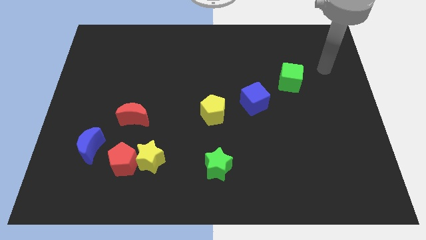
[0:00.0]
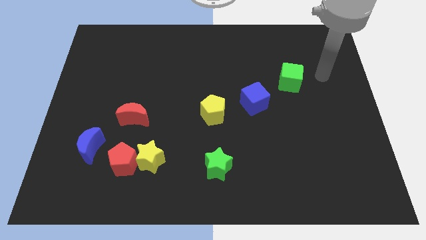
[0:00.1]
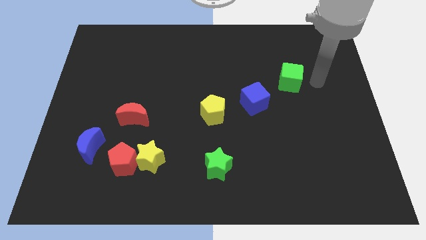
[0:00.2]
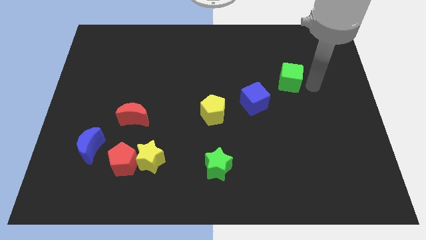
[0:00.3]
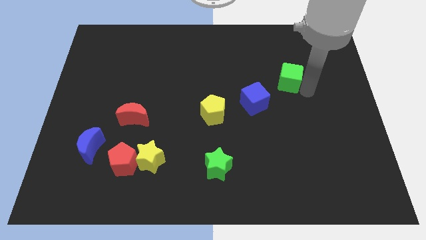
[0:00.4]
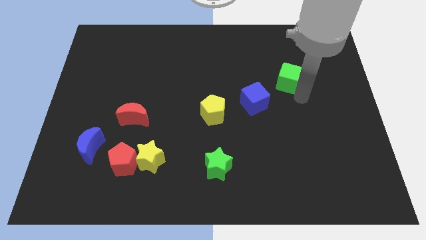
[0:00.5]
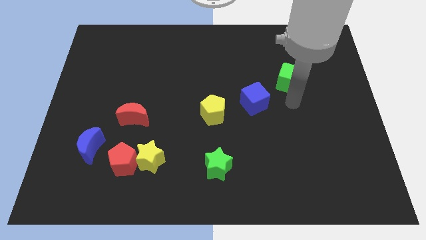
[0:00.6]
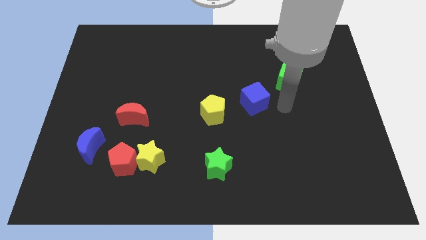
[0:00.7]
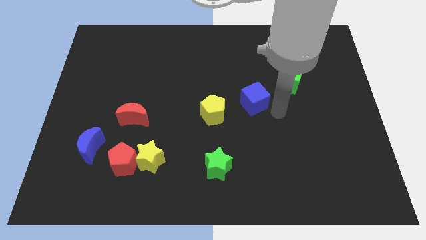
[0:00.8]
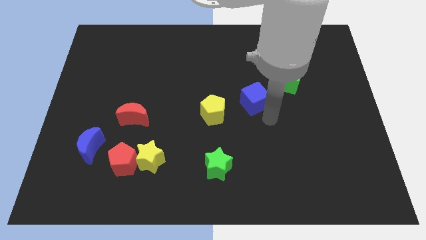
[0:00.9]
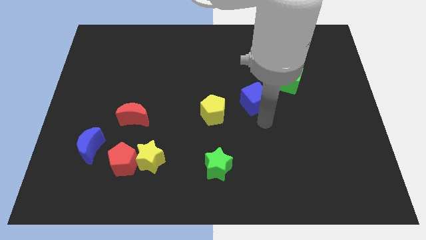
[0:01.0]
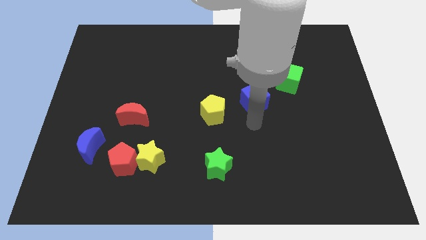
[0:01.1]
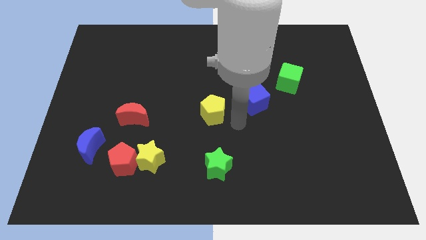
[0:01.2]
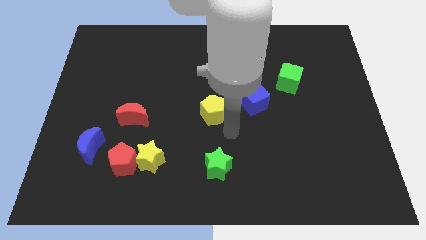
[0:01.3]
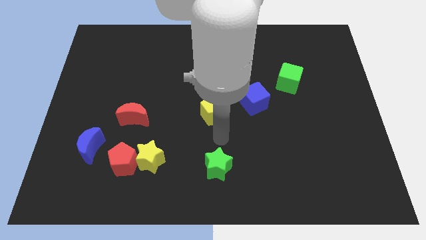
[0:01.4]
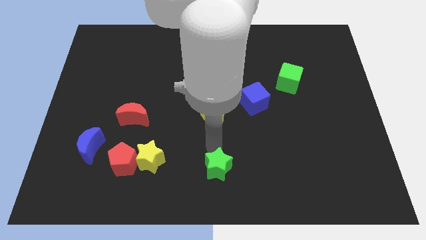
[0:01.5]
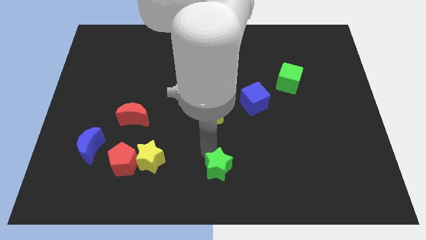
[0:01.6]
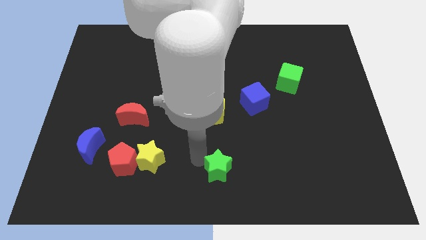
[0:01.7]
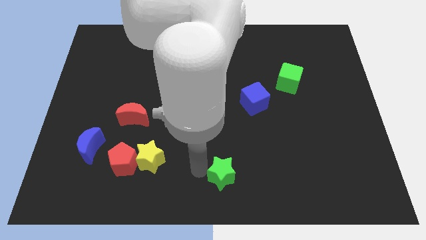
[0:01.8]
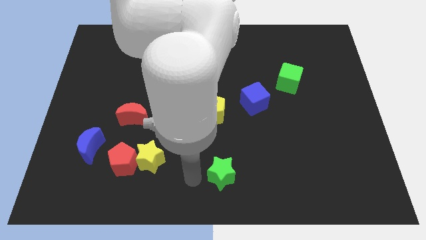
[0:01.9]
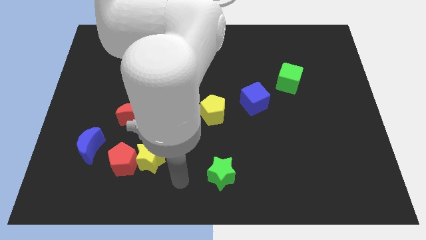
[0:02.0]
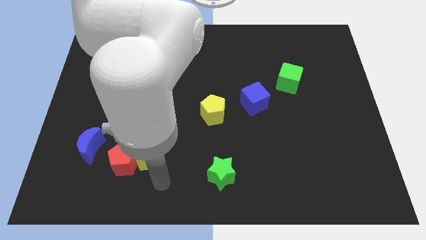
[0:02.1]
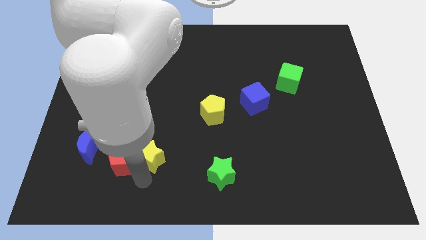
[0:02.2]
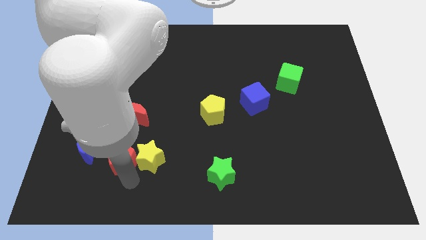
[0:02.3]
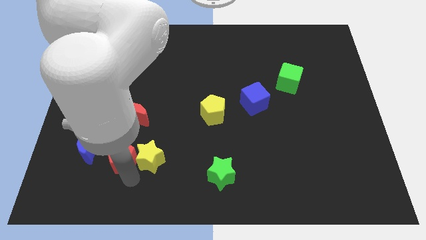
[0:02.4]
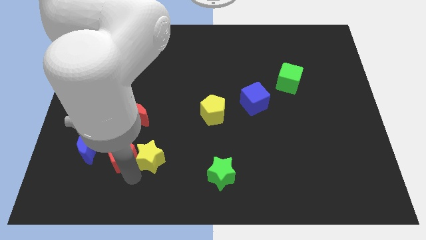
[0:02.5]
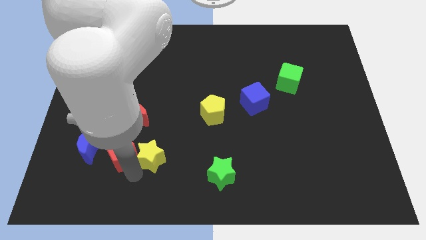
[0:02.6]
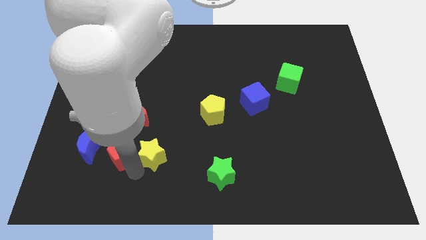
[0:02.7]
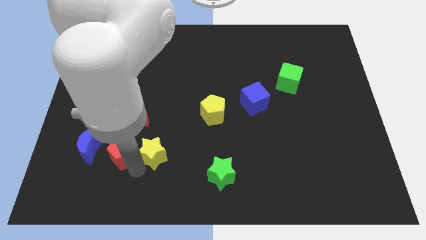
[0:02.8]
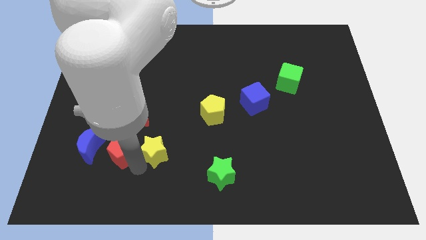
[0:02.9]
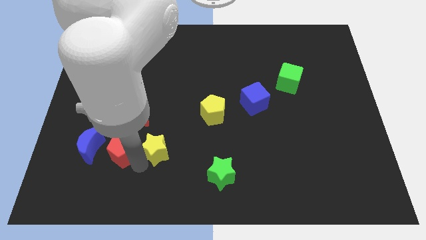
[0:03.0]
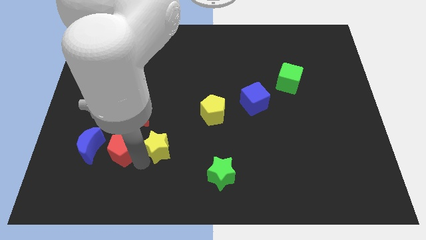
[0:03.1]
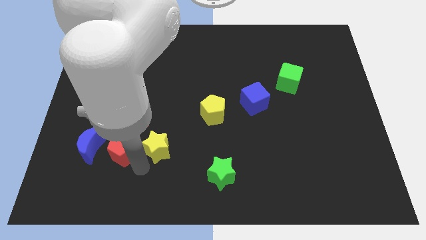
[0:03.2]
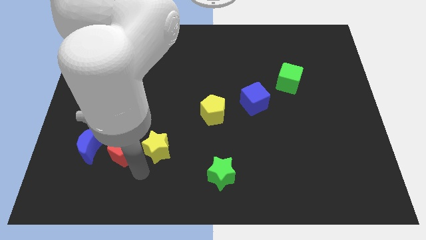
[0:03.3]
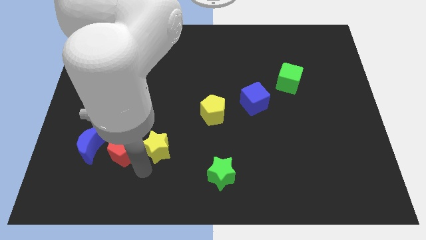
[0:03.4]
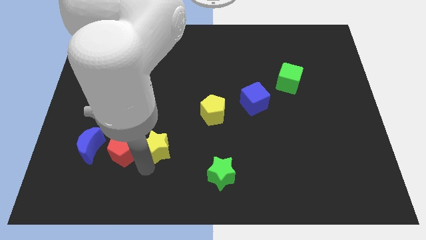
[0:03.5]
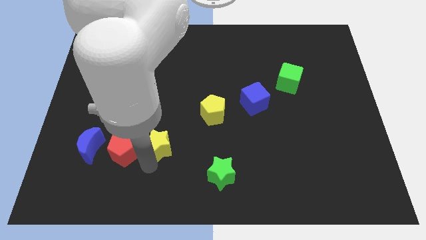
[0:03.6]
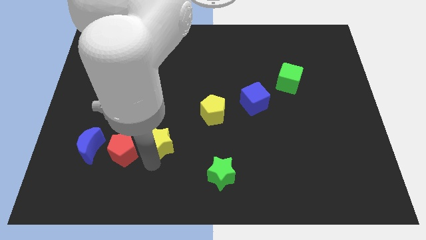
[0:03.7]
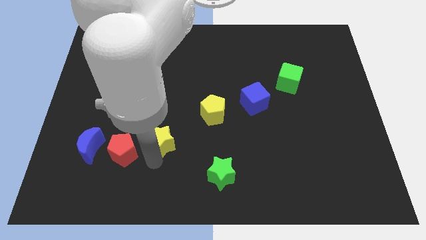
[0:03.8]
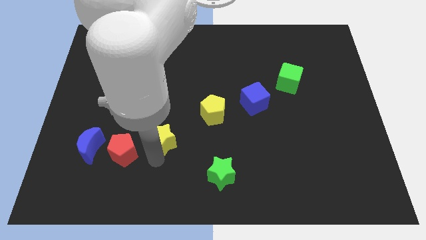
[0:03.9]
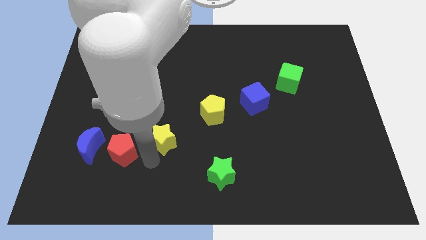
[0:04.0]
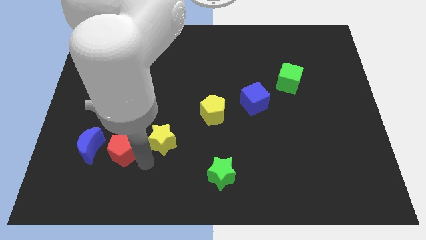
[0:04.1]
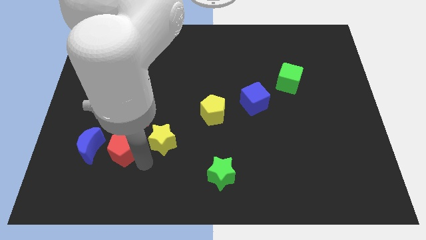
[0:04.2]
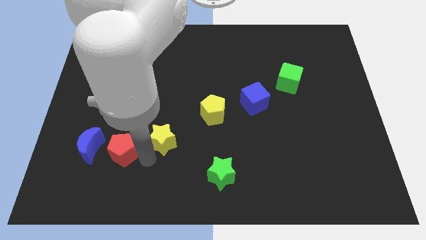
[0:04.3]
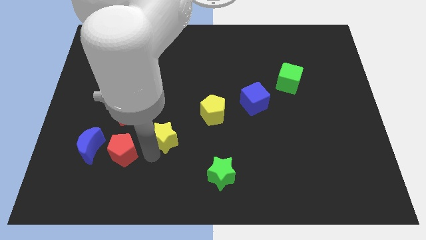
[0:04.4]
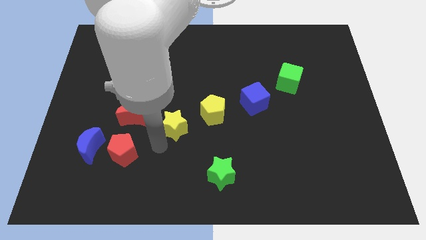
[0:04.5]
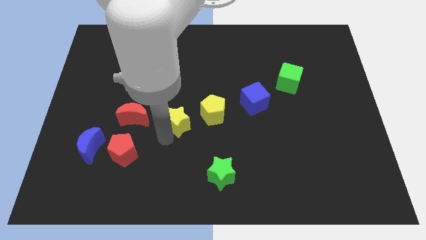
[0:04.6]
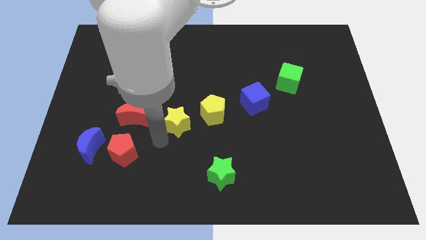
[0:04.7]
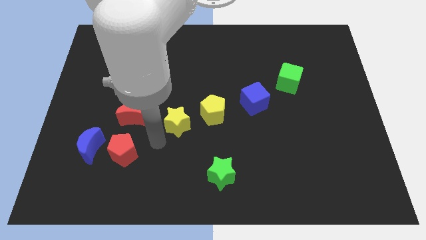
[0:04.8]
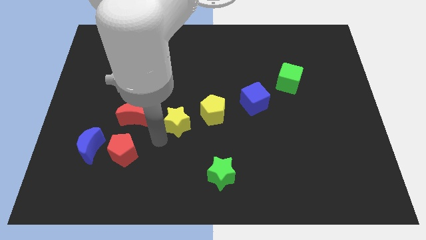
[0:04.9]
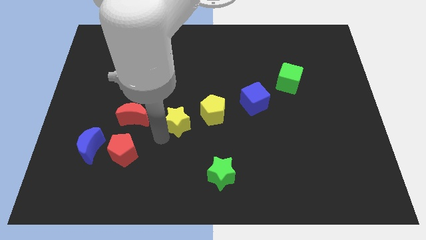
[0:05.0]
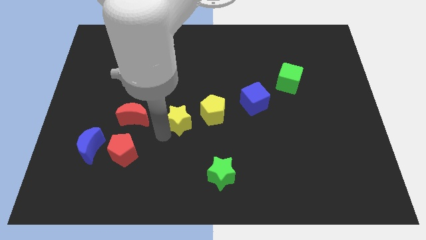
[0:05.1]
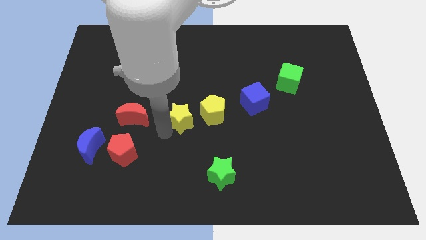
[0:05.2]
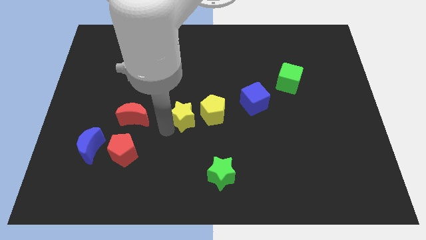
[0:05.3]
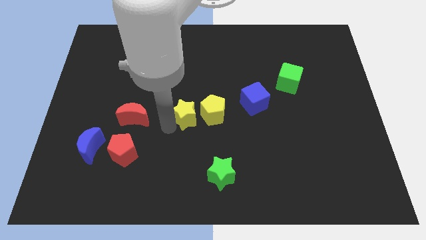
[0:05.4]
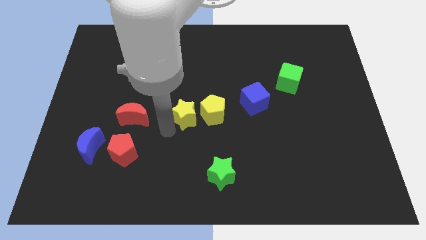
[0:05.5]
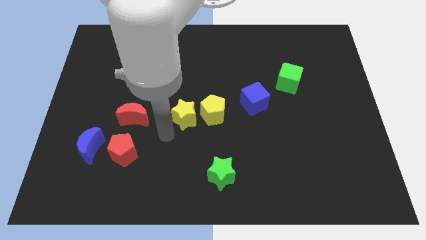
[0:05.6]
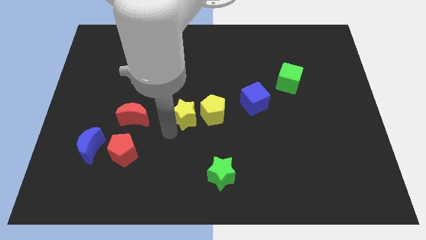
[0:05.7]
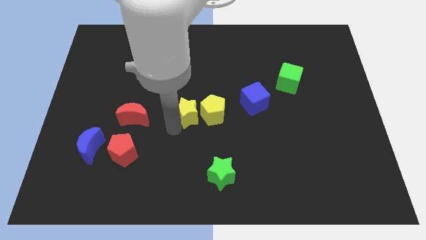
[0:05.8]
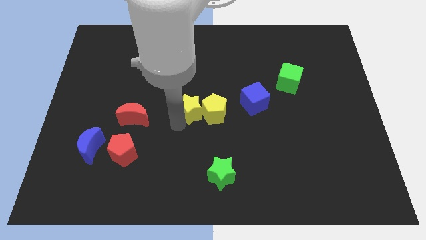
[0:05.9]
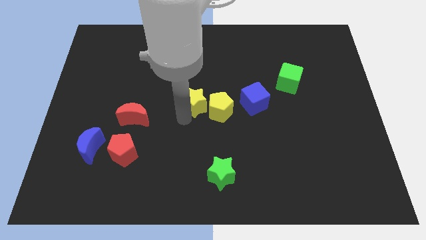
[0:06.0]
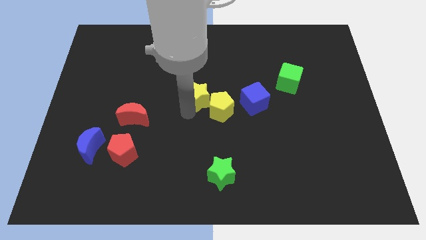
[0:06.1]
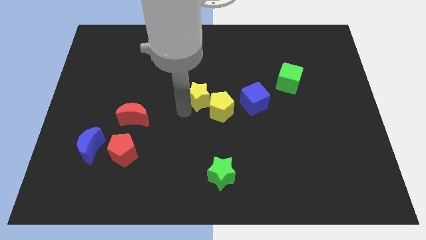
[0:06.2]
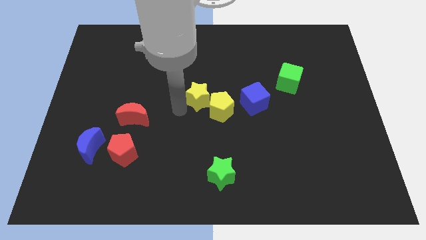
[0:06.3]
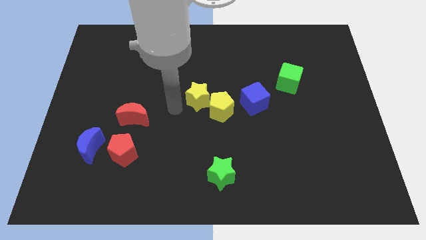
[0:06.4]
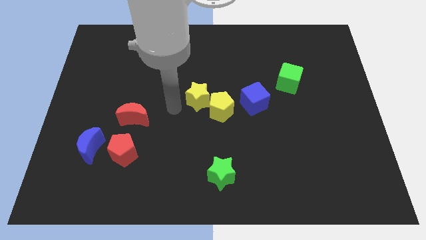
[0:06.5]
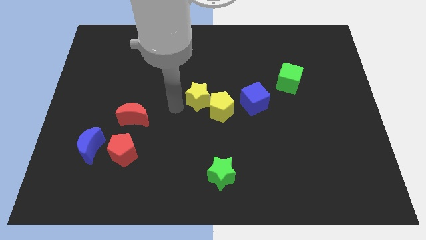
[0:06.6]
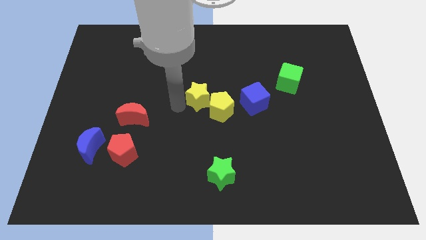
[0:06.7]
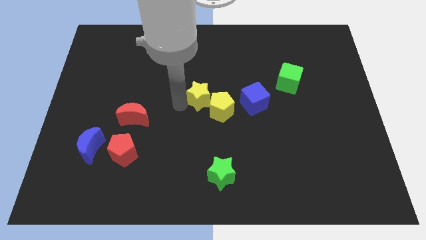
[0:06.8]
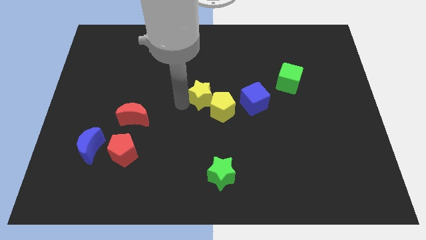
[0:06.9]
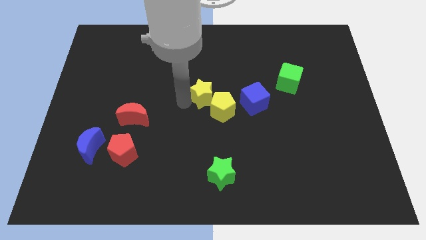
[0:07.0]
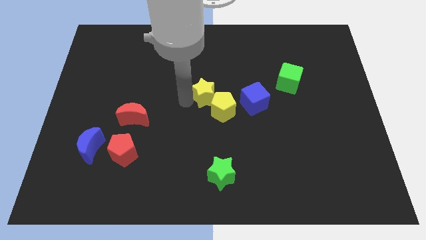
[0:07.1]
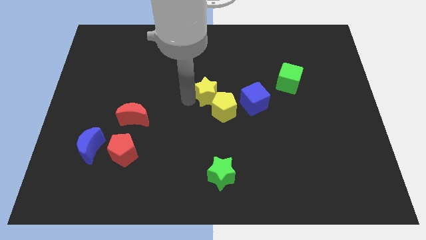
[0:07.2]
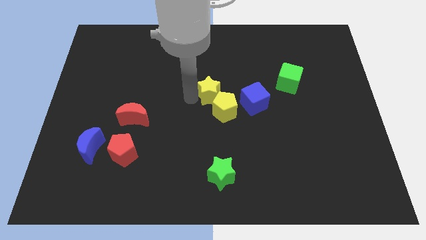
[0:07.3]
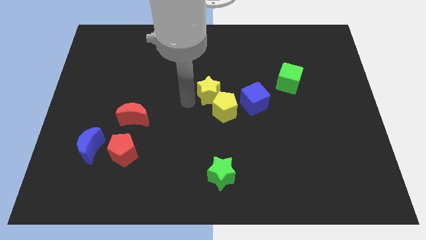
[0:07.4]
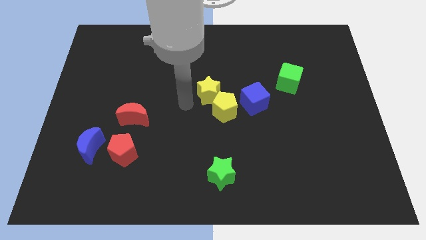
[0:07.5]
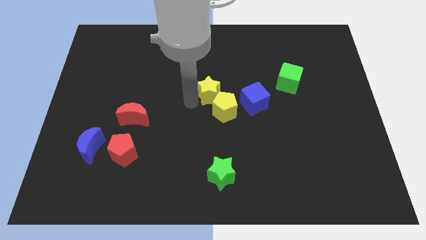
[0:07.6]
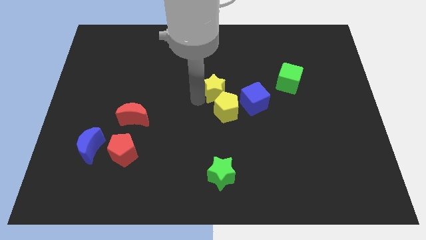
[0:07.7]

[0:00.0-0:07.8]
push the yellow star diagonally up and to the left of the blue cube

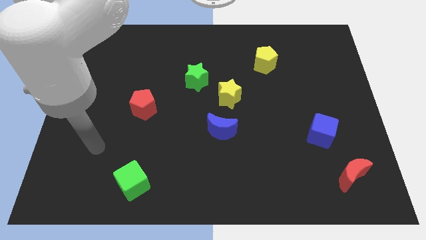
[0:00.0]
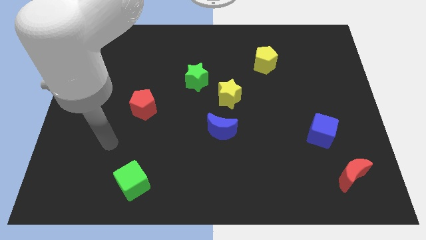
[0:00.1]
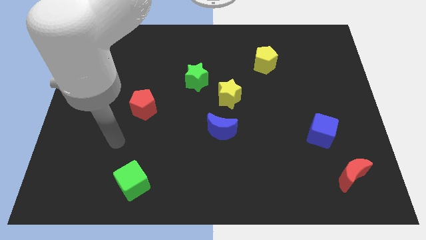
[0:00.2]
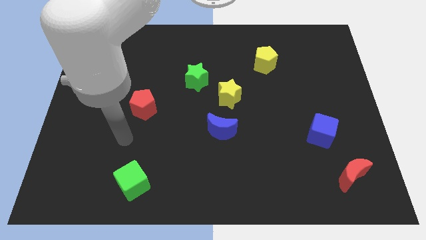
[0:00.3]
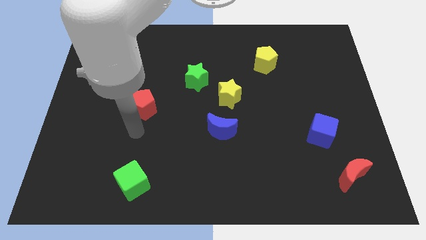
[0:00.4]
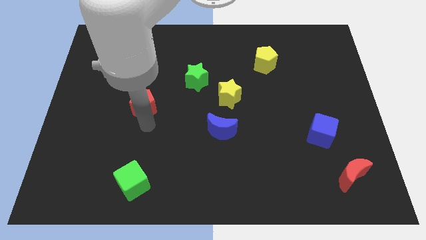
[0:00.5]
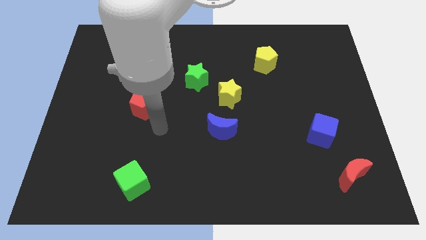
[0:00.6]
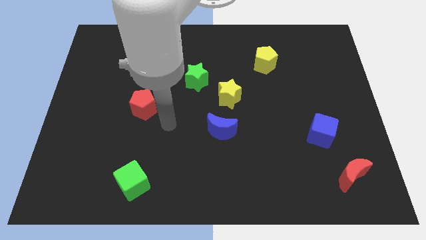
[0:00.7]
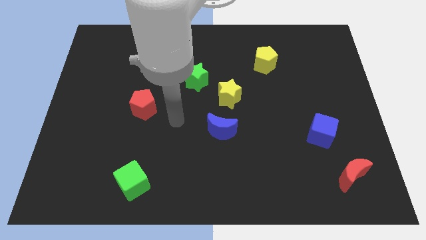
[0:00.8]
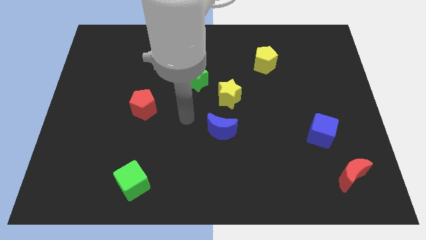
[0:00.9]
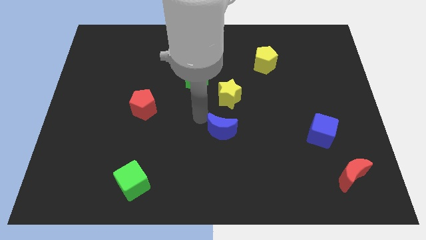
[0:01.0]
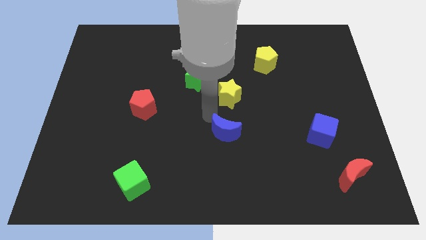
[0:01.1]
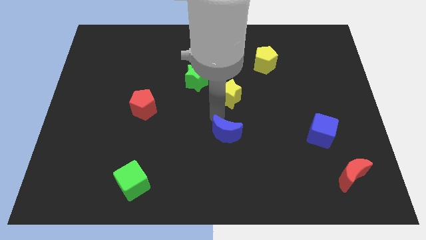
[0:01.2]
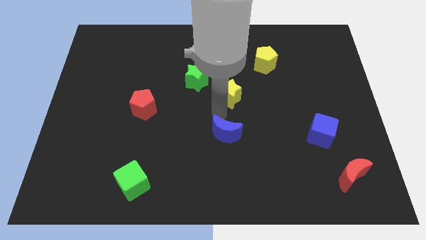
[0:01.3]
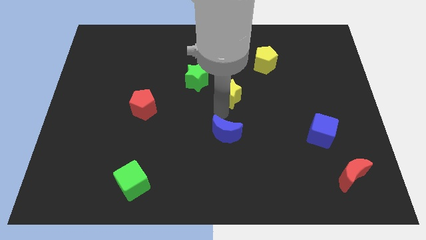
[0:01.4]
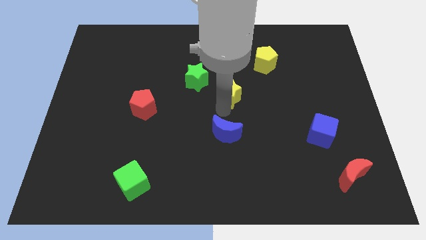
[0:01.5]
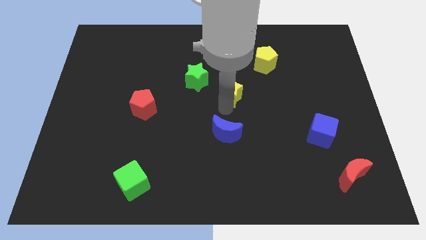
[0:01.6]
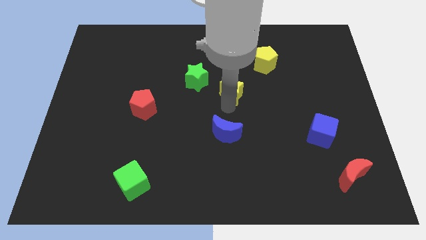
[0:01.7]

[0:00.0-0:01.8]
slide the yellow star to the right side of the green star
